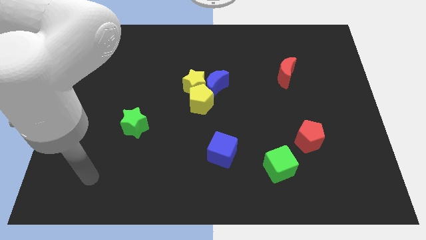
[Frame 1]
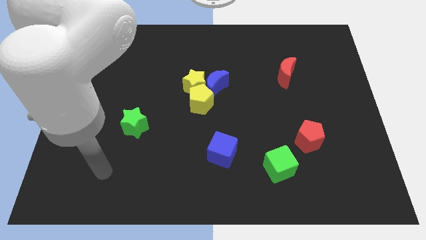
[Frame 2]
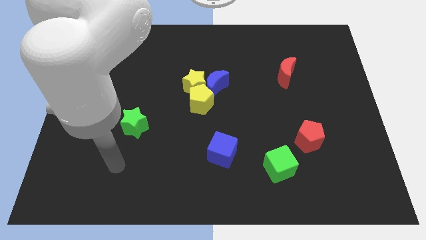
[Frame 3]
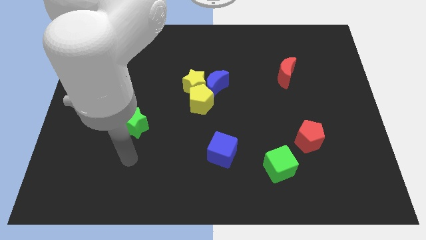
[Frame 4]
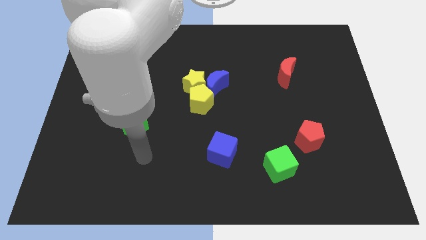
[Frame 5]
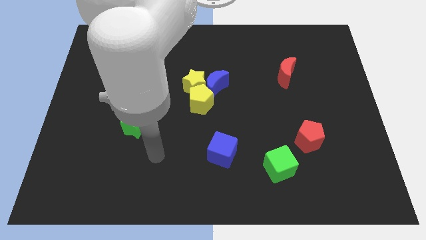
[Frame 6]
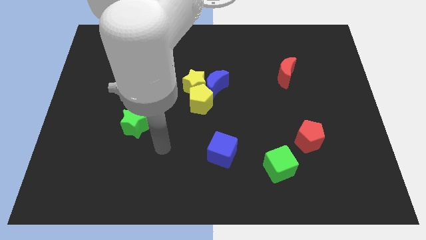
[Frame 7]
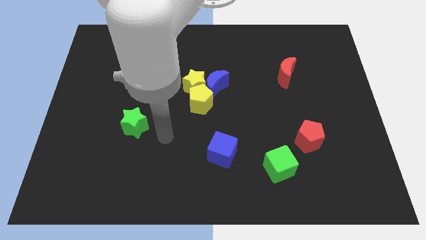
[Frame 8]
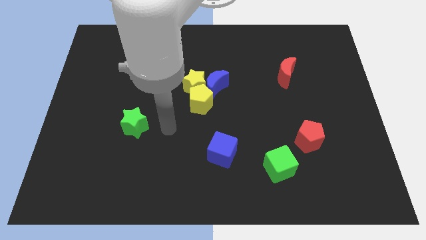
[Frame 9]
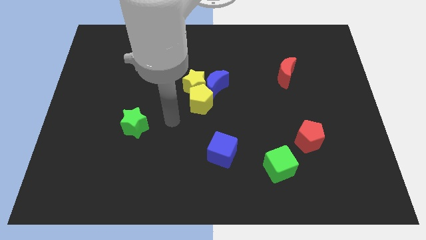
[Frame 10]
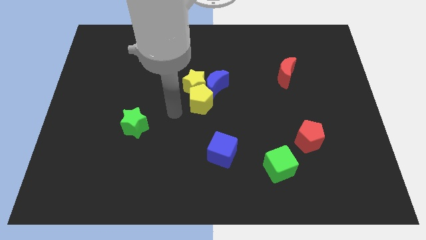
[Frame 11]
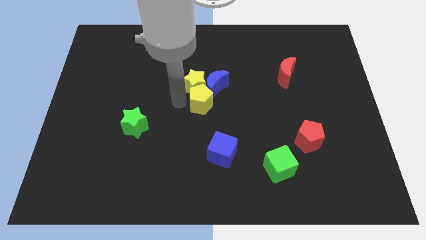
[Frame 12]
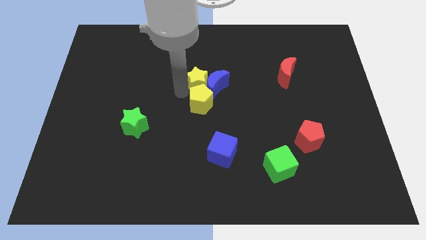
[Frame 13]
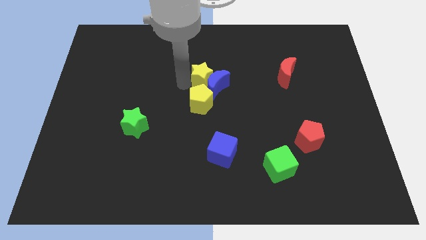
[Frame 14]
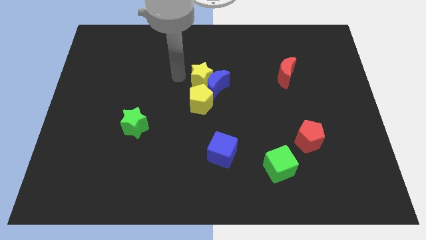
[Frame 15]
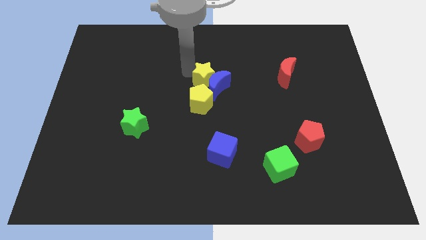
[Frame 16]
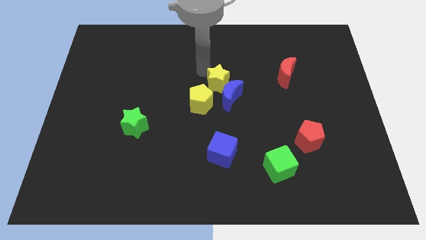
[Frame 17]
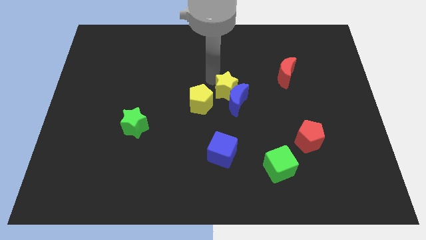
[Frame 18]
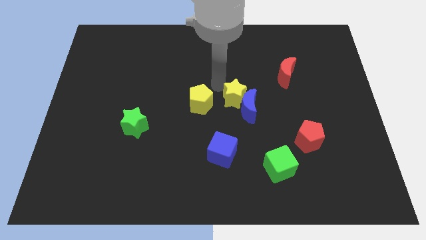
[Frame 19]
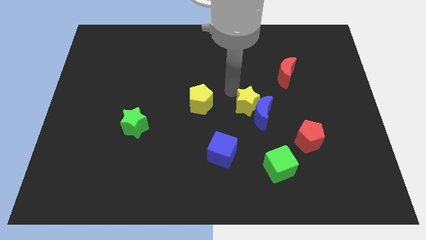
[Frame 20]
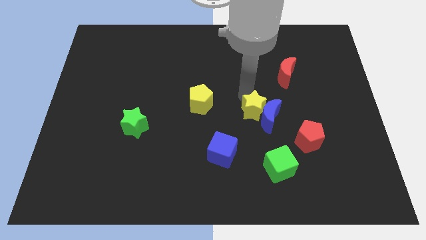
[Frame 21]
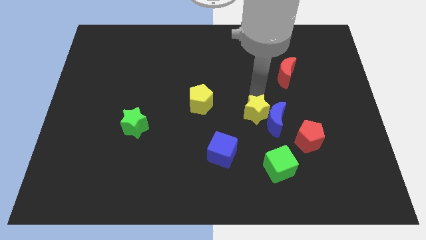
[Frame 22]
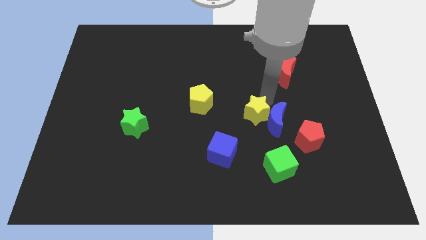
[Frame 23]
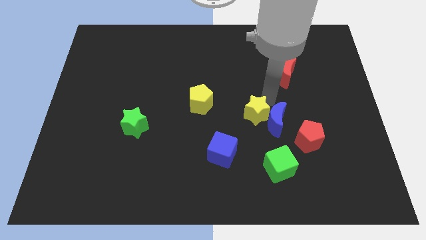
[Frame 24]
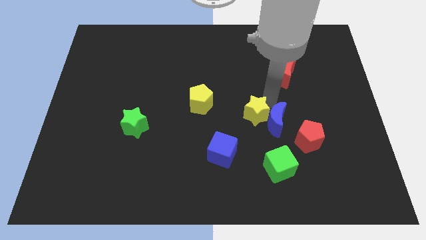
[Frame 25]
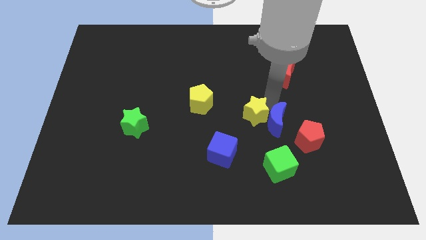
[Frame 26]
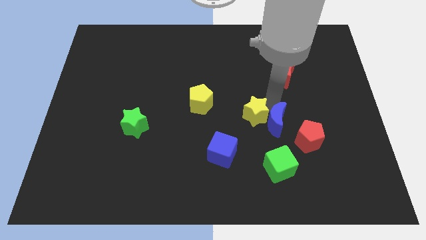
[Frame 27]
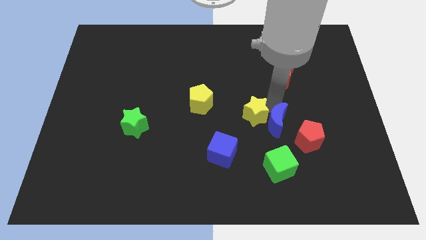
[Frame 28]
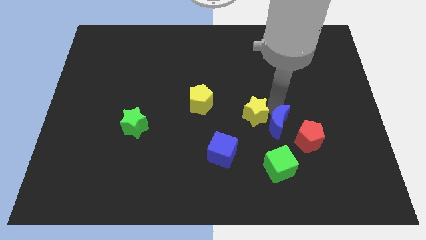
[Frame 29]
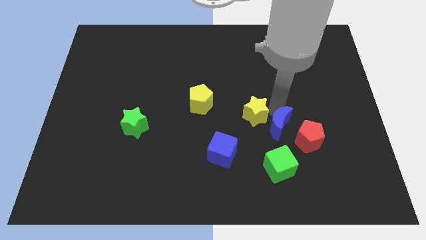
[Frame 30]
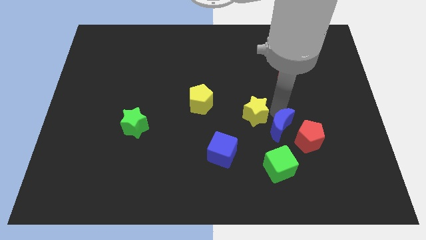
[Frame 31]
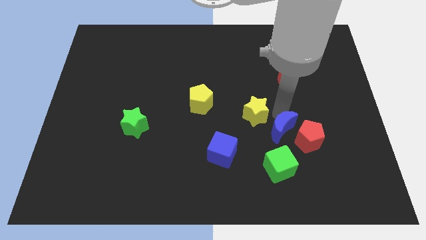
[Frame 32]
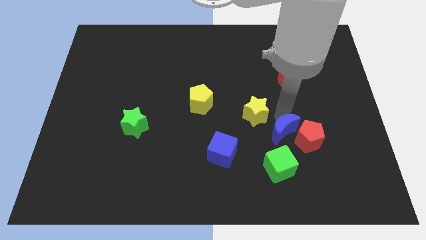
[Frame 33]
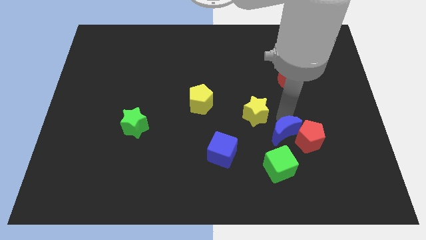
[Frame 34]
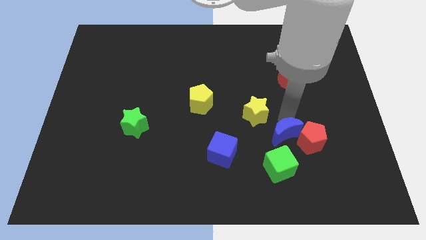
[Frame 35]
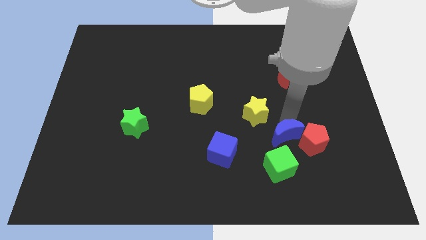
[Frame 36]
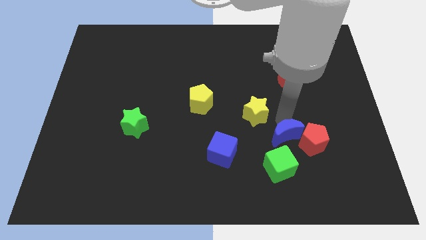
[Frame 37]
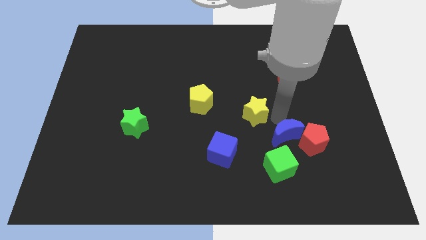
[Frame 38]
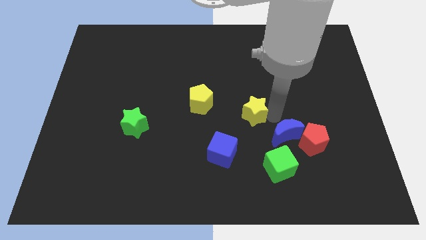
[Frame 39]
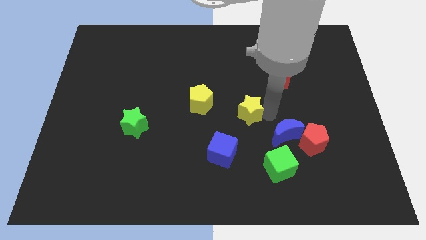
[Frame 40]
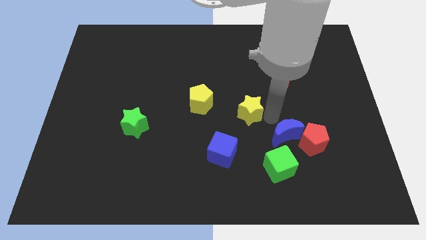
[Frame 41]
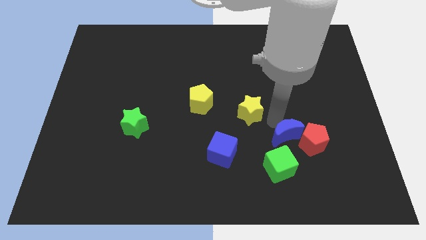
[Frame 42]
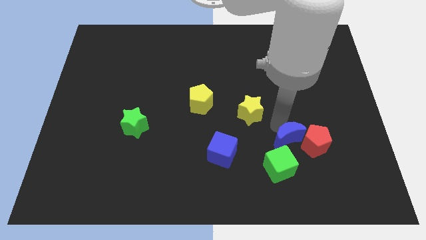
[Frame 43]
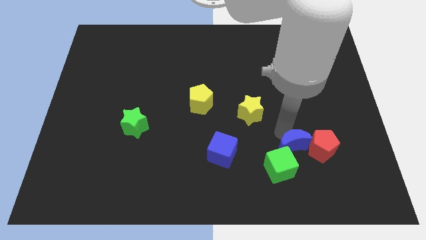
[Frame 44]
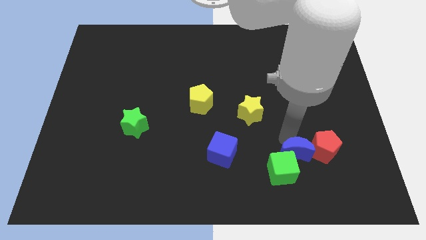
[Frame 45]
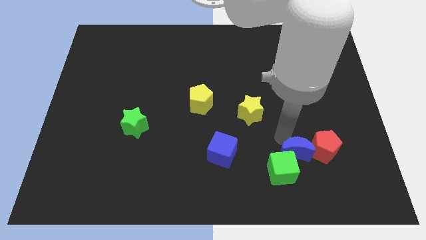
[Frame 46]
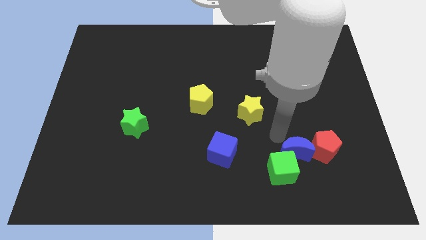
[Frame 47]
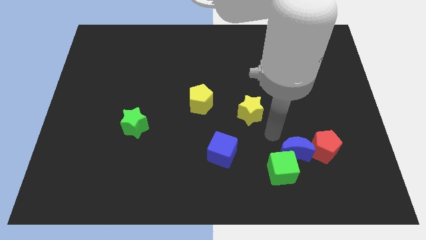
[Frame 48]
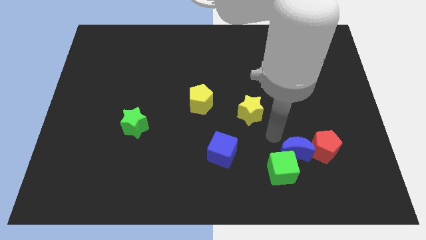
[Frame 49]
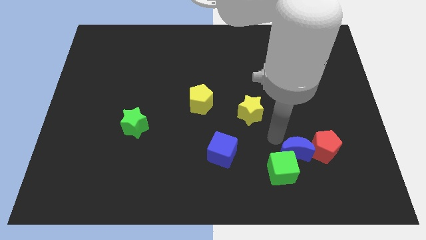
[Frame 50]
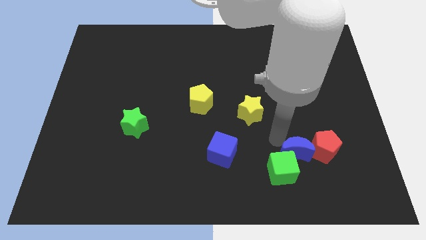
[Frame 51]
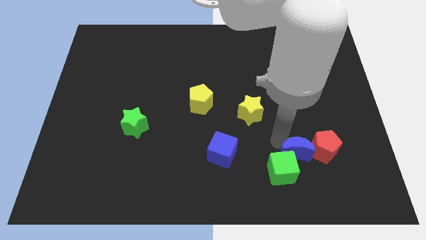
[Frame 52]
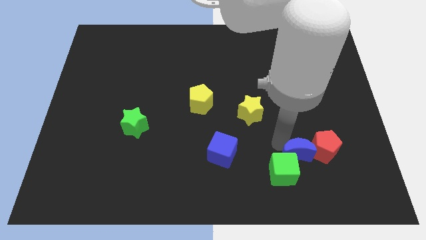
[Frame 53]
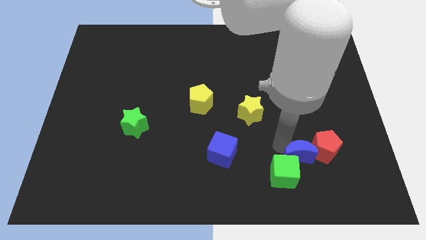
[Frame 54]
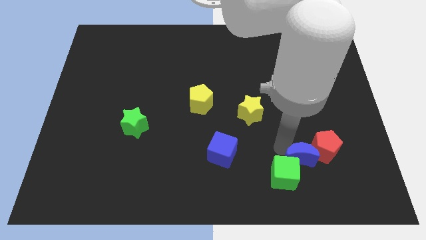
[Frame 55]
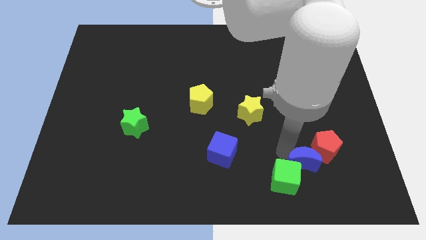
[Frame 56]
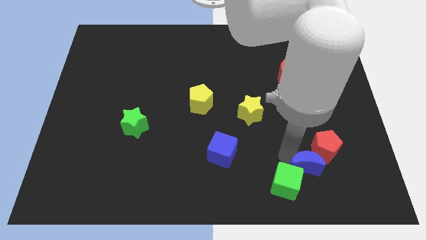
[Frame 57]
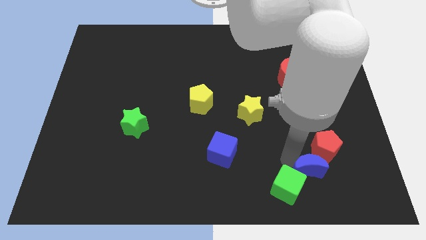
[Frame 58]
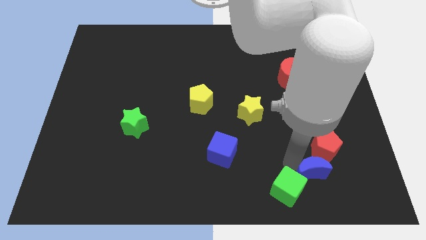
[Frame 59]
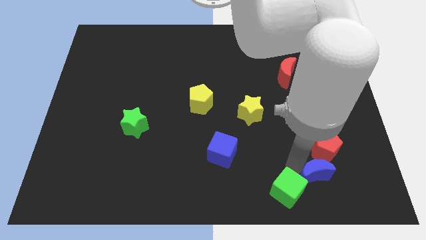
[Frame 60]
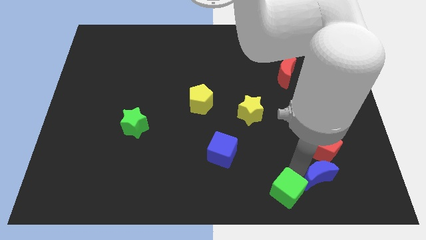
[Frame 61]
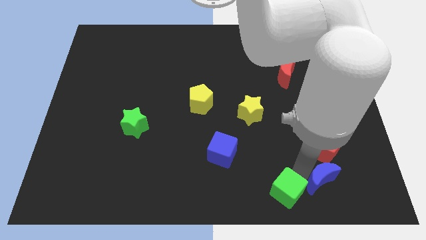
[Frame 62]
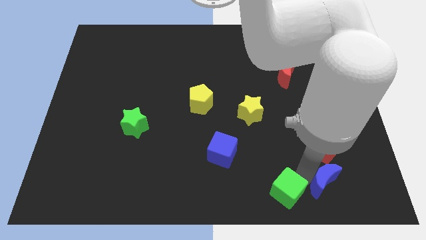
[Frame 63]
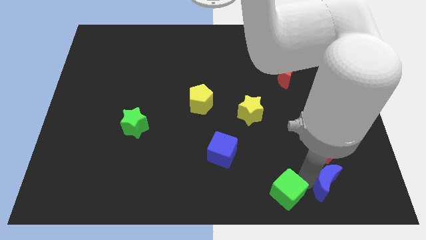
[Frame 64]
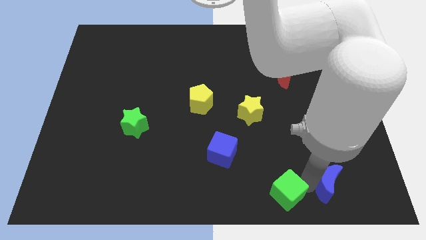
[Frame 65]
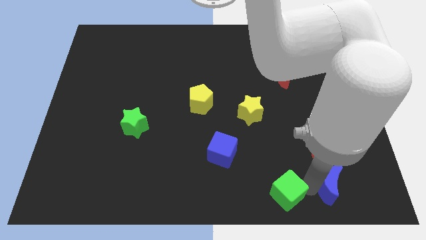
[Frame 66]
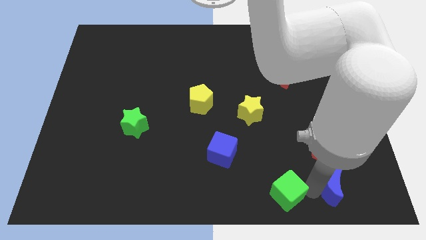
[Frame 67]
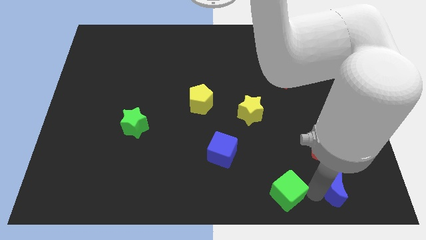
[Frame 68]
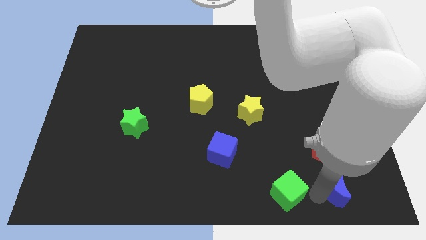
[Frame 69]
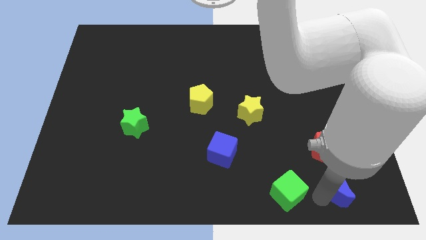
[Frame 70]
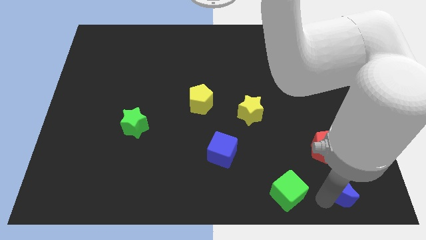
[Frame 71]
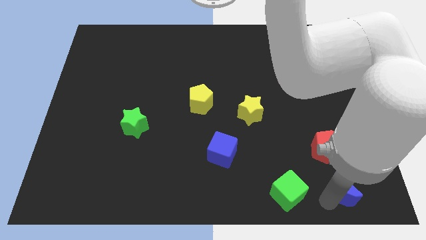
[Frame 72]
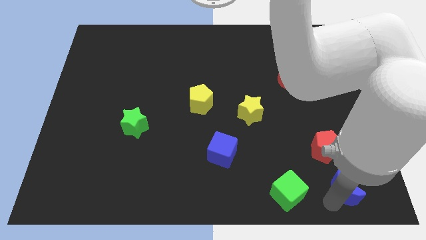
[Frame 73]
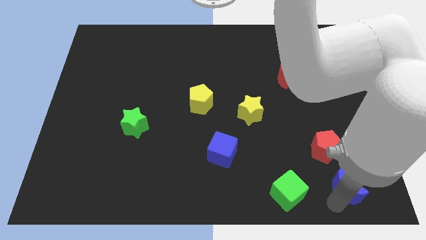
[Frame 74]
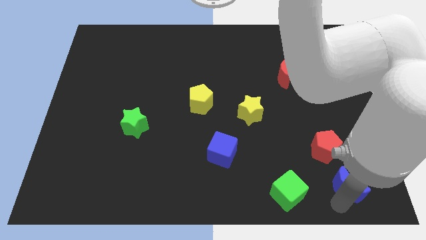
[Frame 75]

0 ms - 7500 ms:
put the blue moon diagonally down and to the right of the red pentagon
